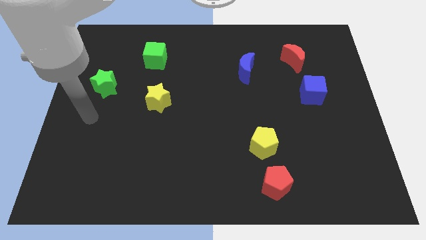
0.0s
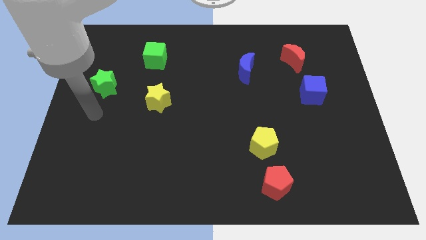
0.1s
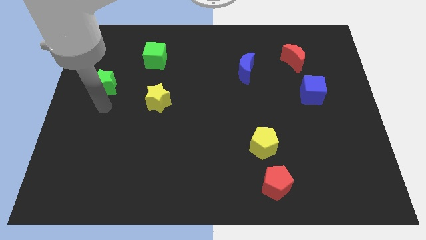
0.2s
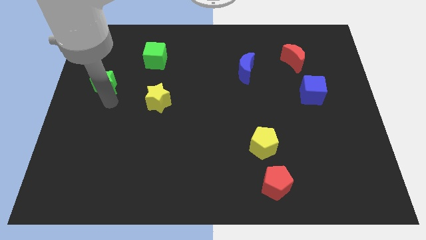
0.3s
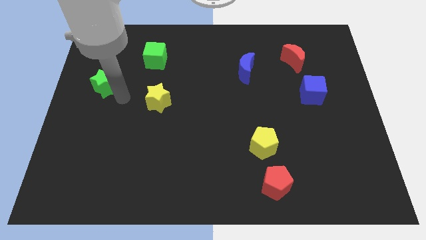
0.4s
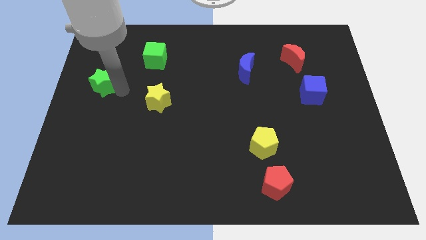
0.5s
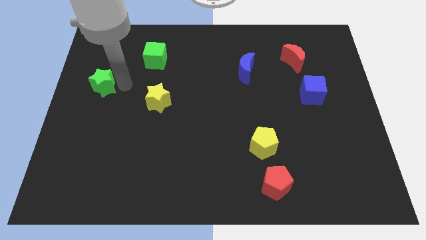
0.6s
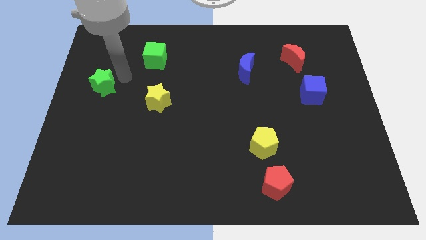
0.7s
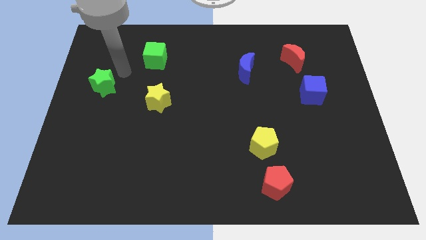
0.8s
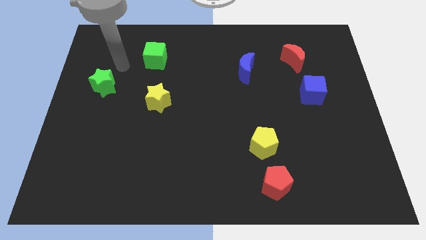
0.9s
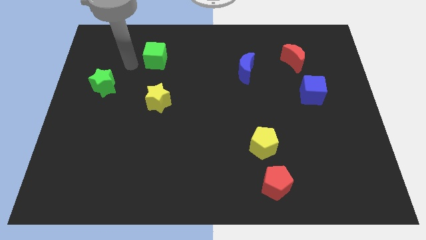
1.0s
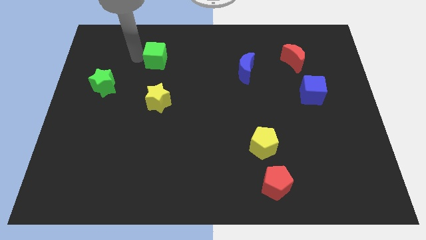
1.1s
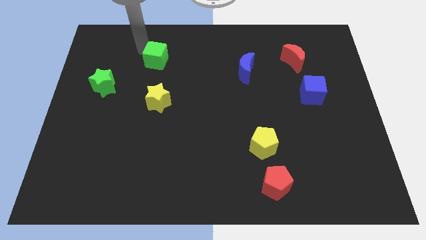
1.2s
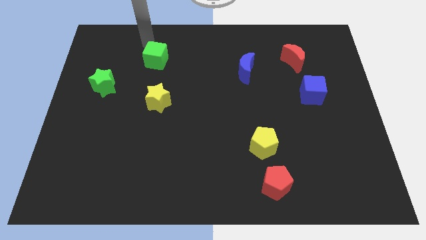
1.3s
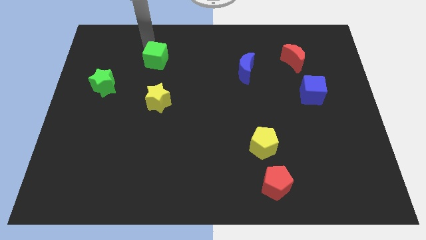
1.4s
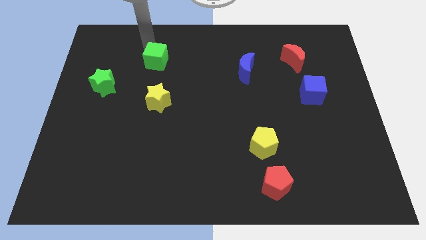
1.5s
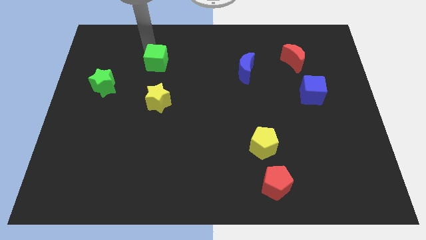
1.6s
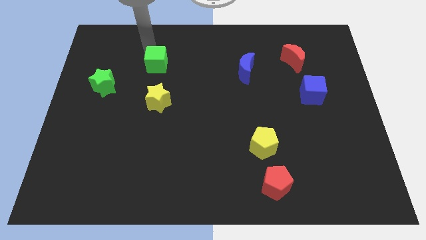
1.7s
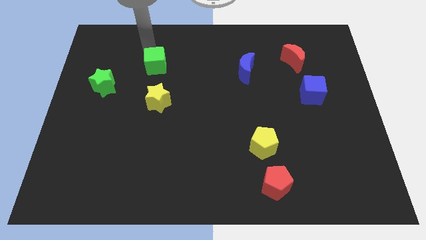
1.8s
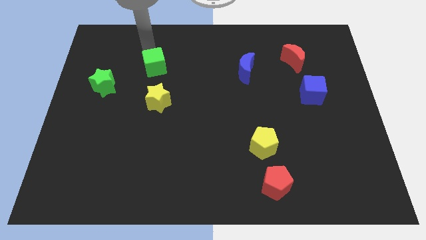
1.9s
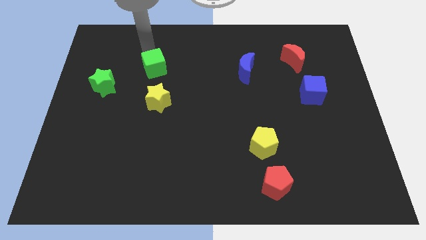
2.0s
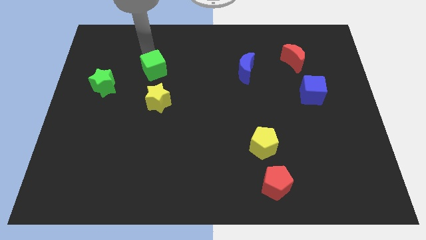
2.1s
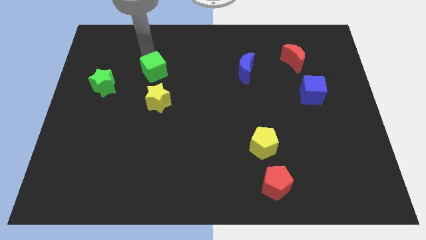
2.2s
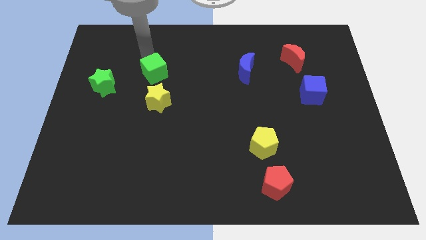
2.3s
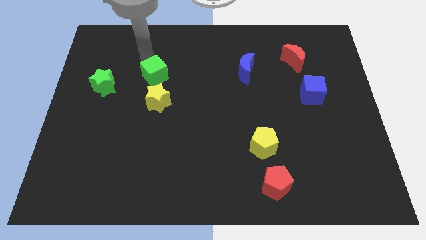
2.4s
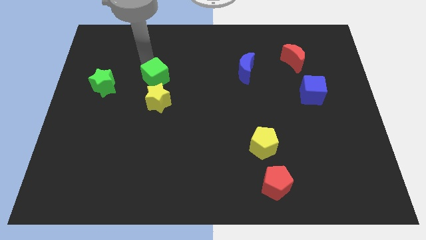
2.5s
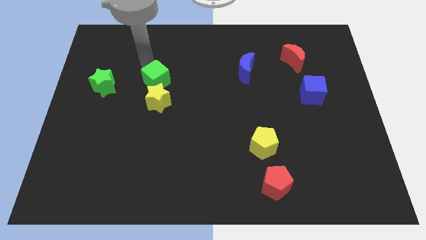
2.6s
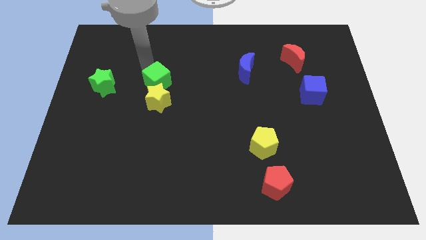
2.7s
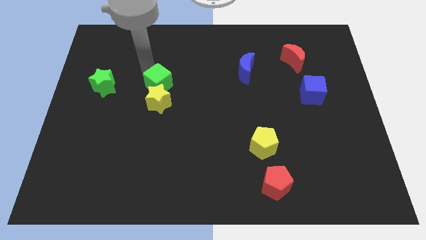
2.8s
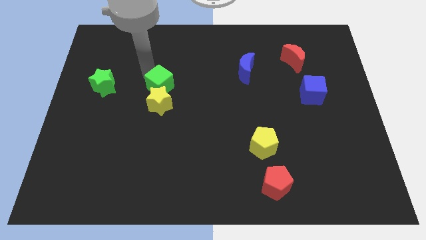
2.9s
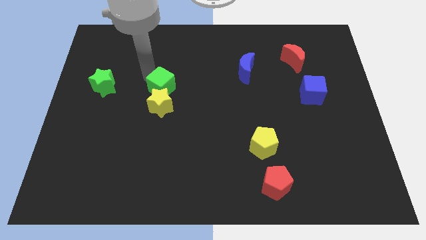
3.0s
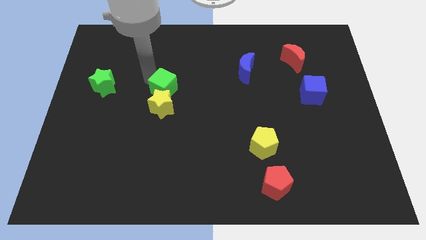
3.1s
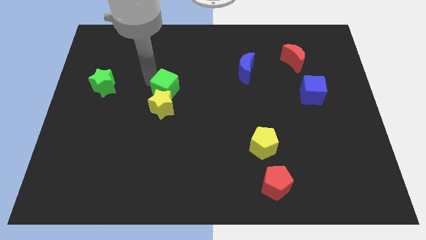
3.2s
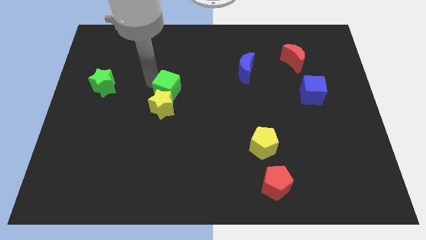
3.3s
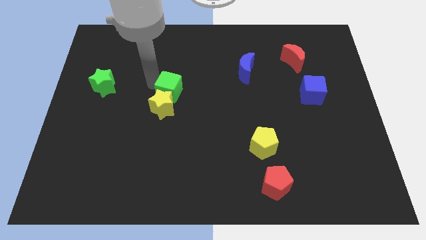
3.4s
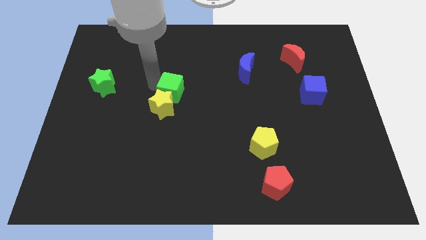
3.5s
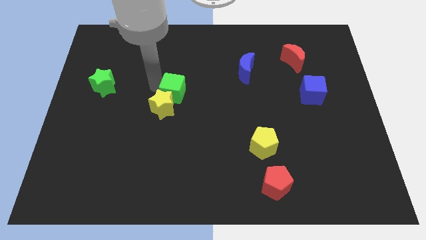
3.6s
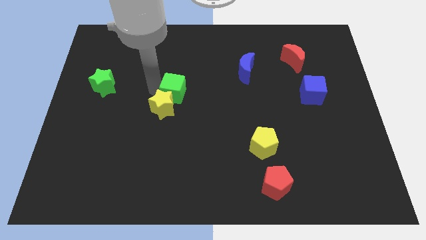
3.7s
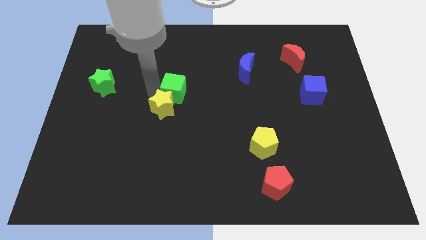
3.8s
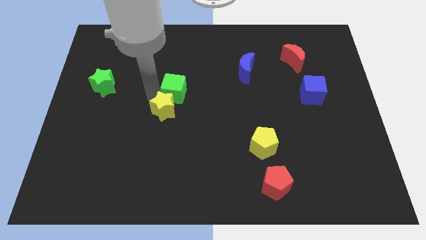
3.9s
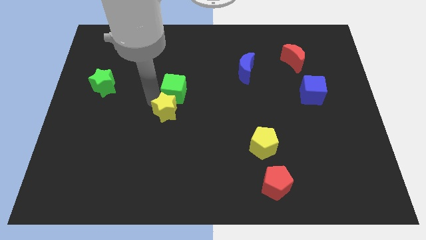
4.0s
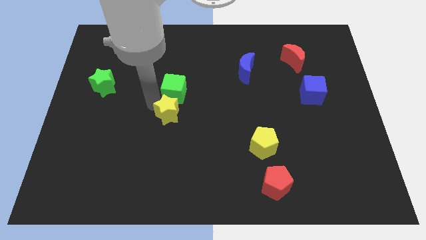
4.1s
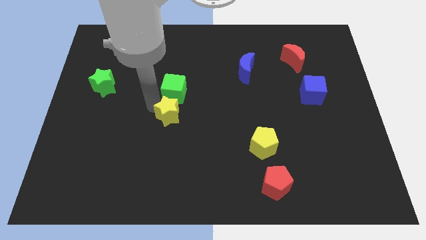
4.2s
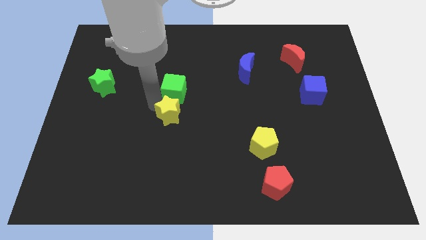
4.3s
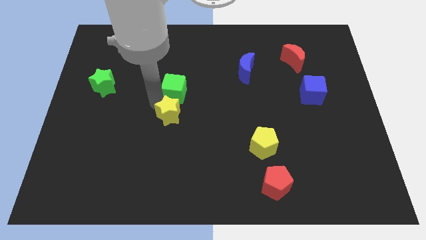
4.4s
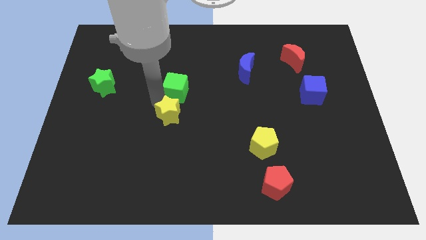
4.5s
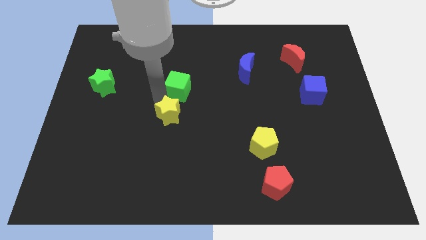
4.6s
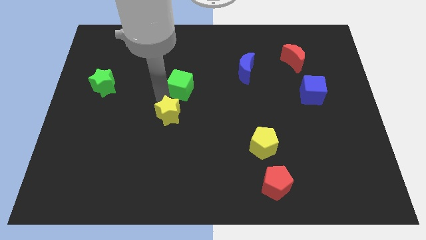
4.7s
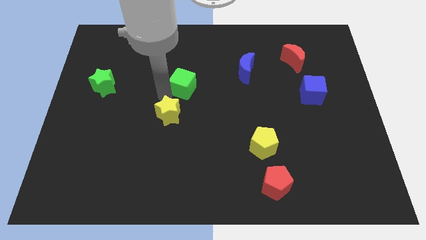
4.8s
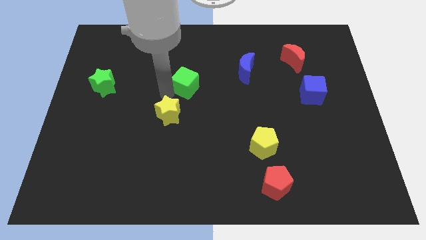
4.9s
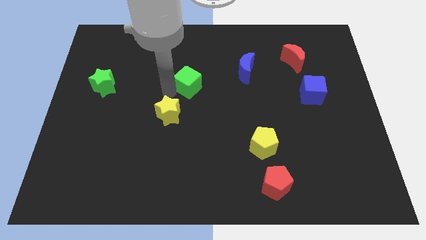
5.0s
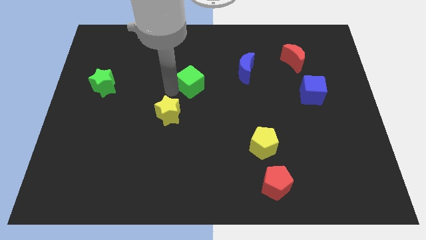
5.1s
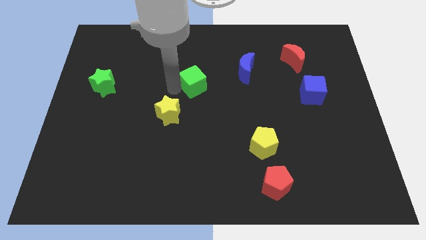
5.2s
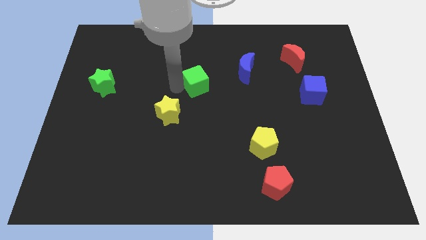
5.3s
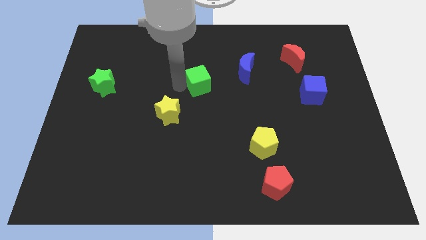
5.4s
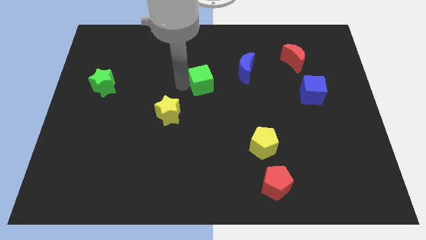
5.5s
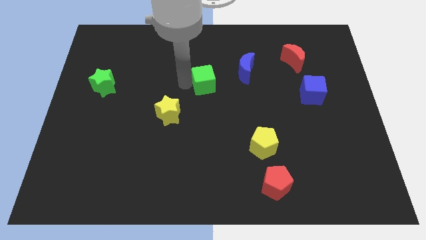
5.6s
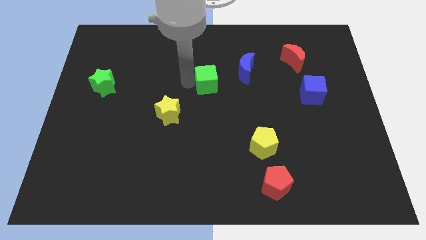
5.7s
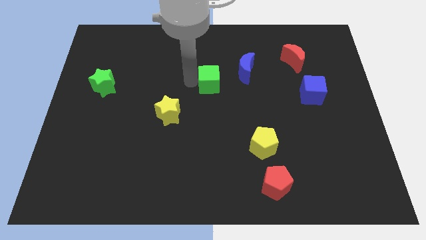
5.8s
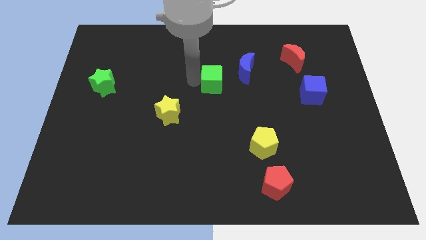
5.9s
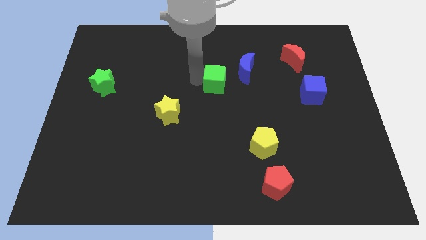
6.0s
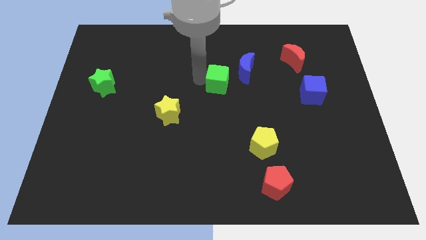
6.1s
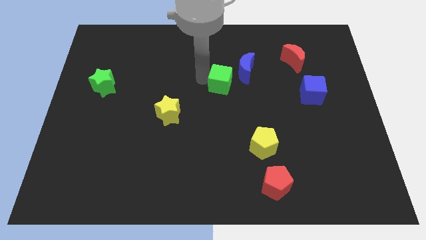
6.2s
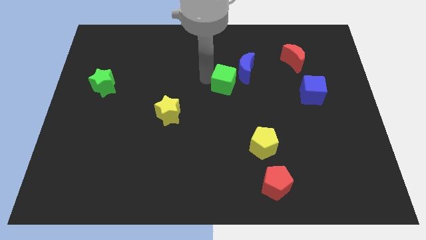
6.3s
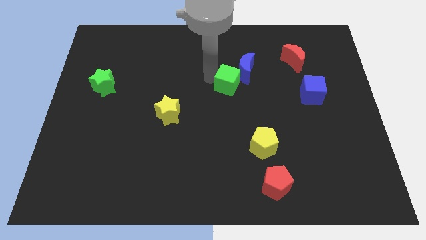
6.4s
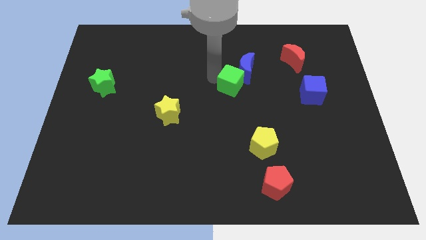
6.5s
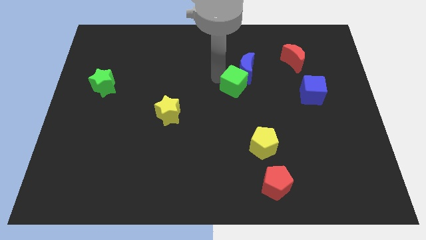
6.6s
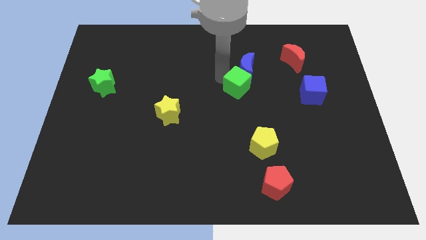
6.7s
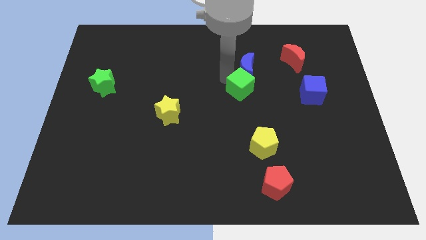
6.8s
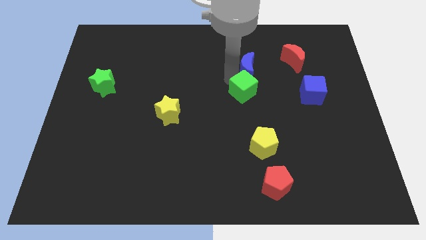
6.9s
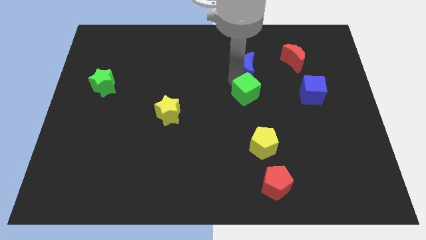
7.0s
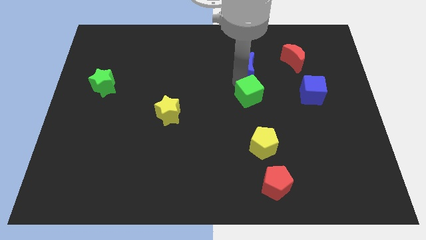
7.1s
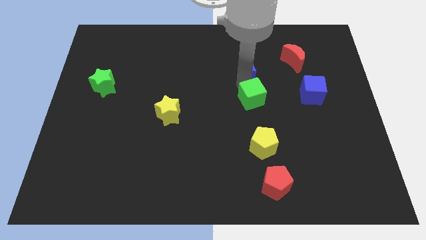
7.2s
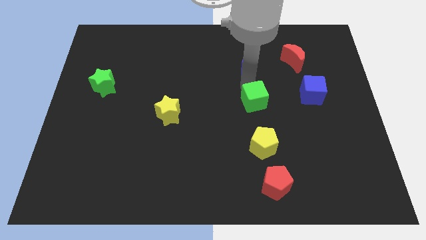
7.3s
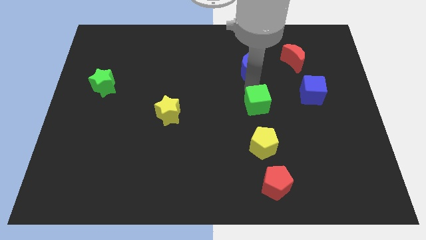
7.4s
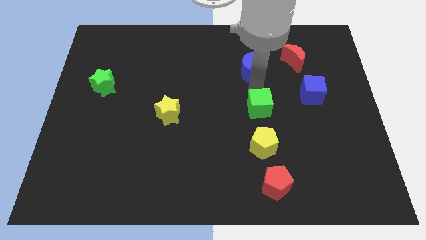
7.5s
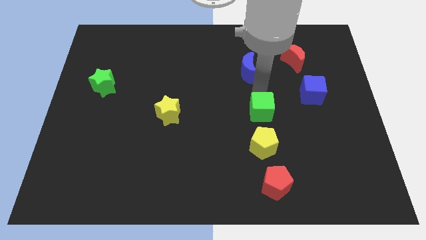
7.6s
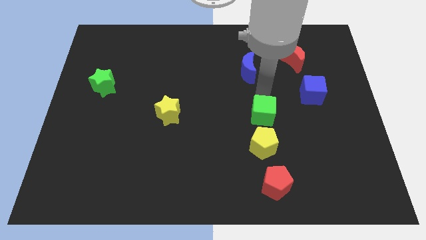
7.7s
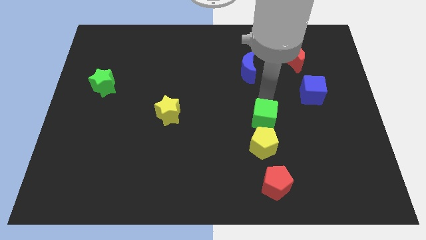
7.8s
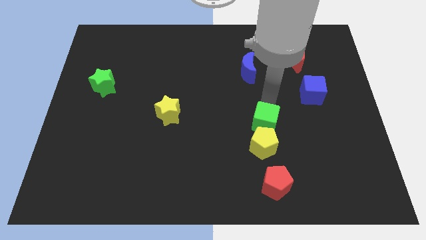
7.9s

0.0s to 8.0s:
push the green cube next to the yellow pentagon

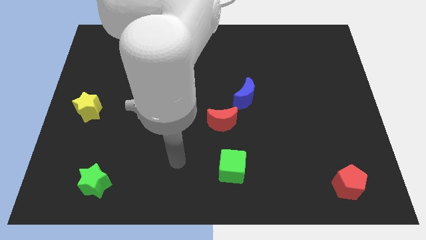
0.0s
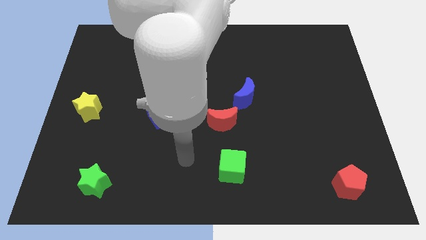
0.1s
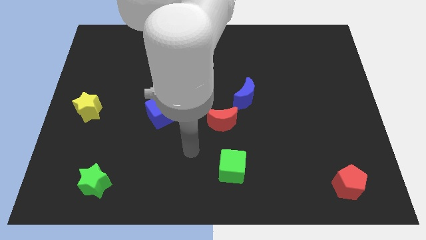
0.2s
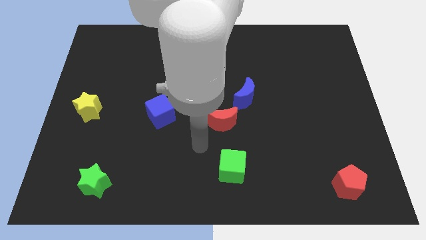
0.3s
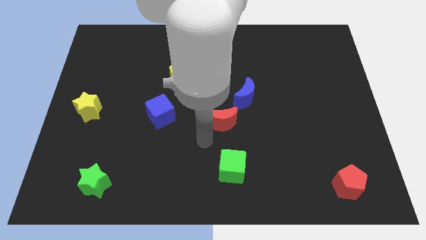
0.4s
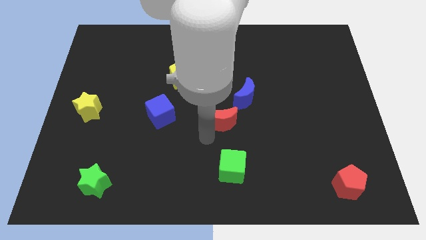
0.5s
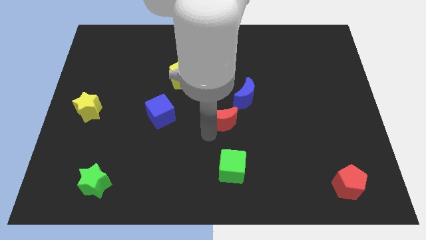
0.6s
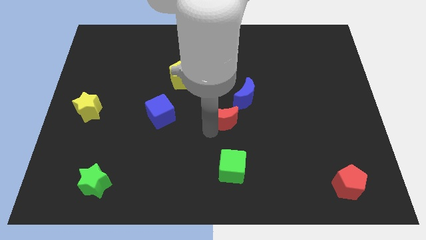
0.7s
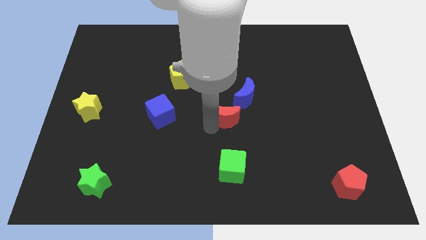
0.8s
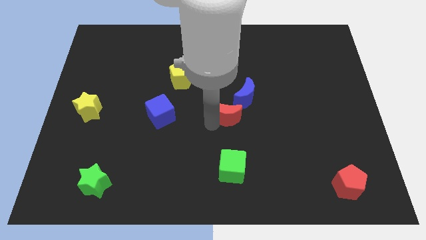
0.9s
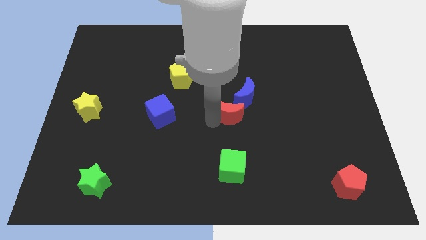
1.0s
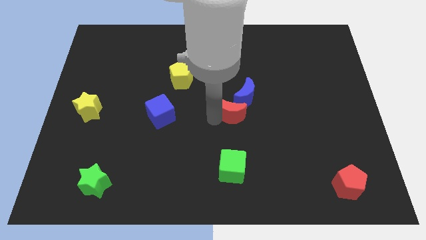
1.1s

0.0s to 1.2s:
move the red moon close to the blue moon
